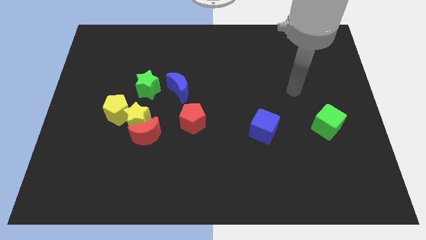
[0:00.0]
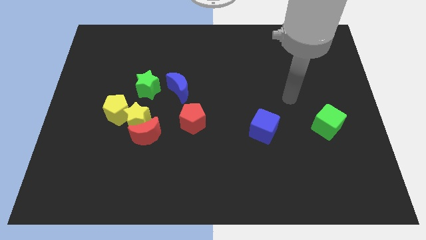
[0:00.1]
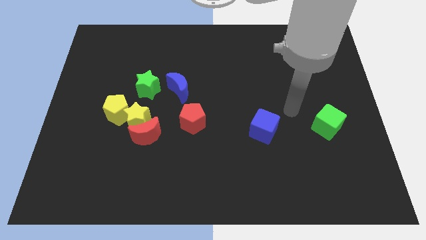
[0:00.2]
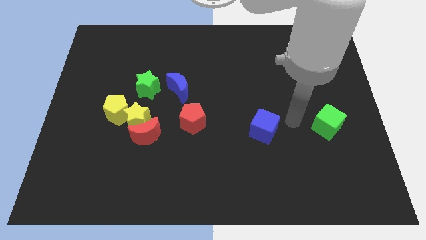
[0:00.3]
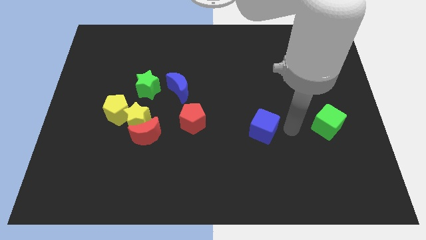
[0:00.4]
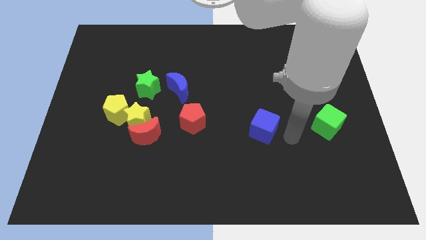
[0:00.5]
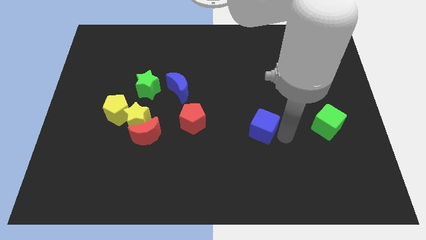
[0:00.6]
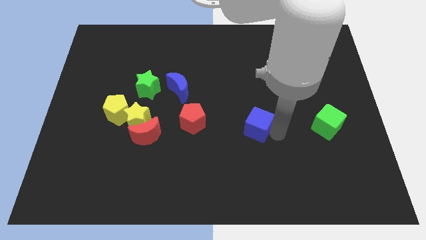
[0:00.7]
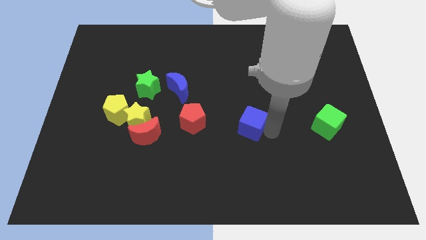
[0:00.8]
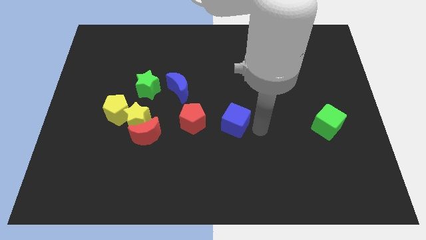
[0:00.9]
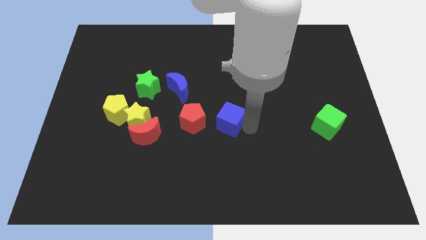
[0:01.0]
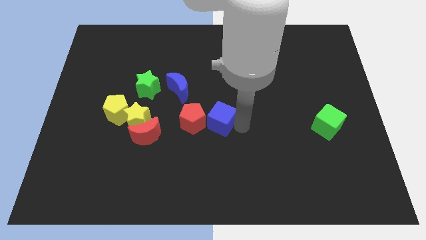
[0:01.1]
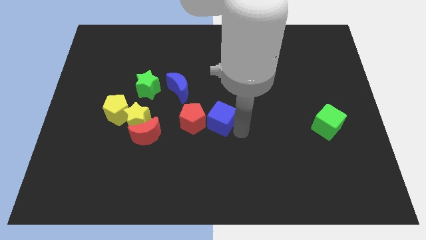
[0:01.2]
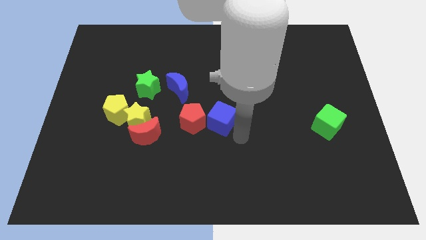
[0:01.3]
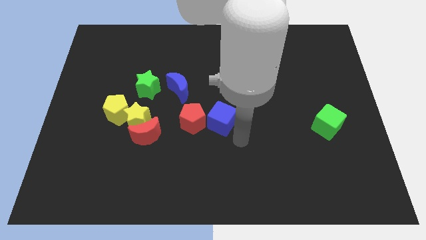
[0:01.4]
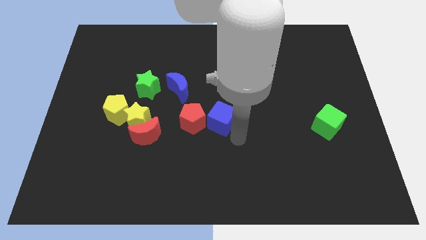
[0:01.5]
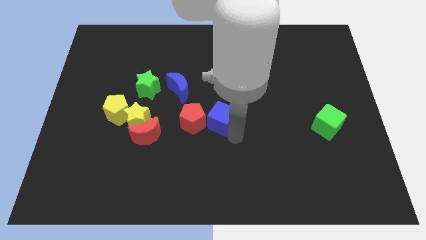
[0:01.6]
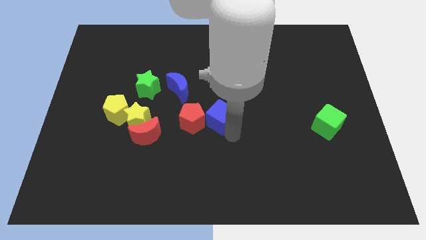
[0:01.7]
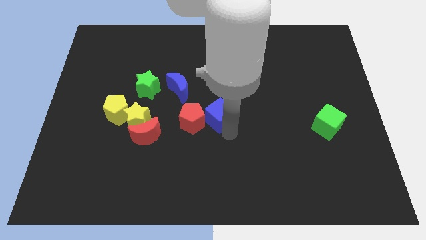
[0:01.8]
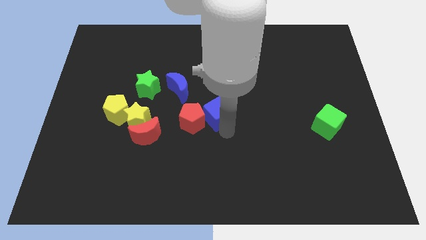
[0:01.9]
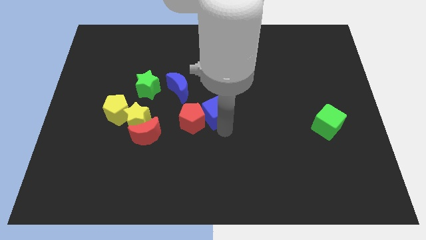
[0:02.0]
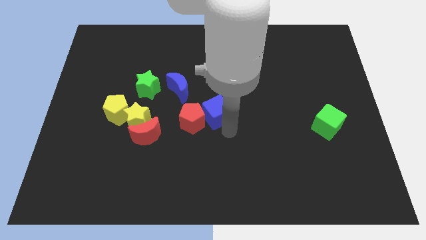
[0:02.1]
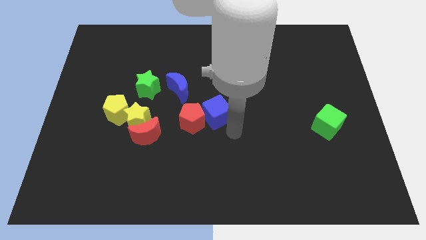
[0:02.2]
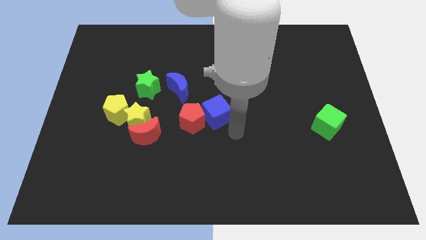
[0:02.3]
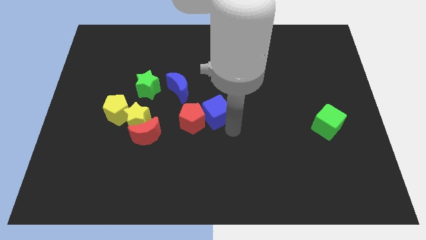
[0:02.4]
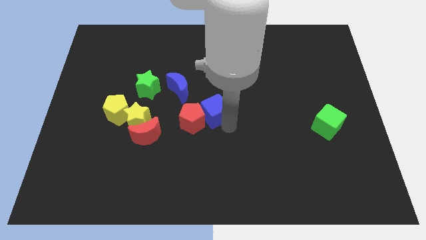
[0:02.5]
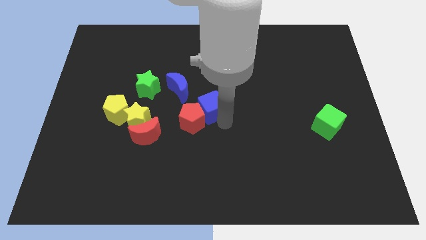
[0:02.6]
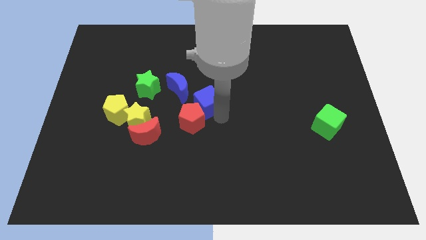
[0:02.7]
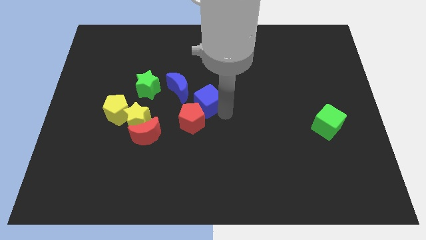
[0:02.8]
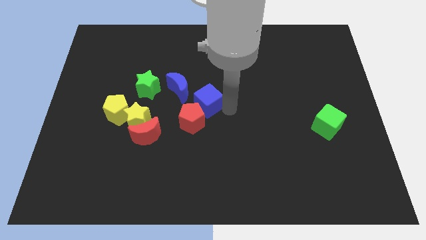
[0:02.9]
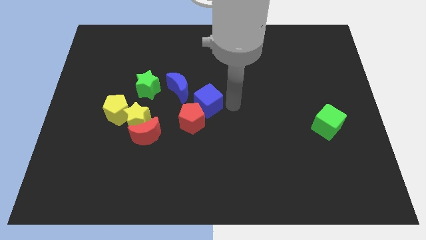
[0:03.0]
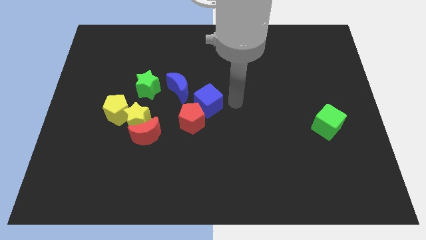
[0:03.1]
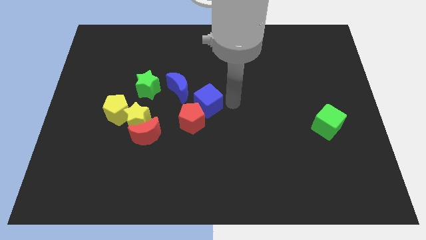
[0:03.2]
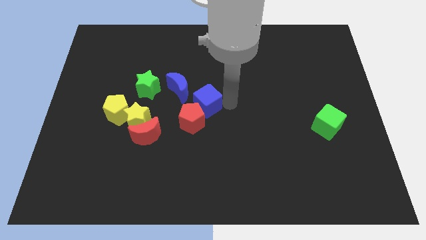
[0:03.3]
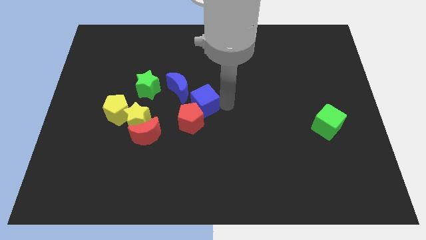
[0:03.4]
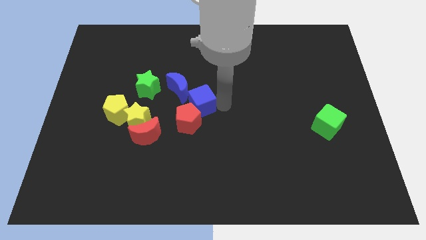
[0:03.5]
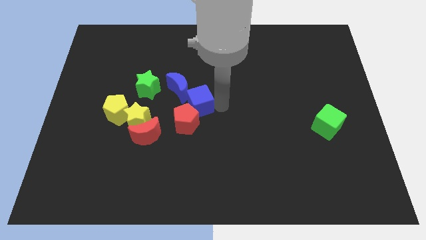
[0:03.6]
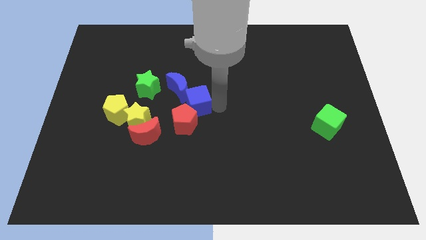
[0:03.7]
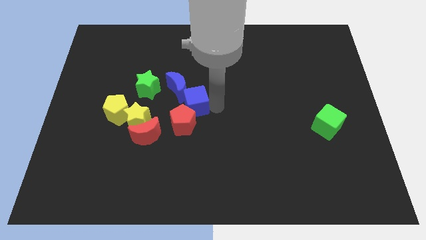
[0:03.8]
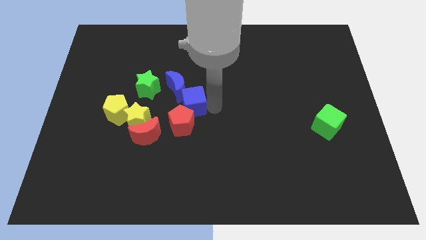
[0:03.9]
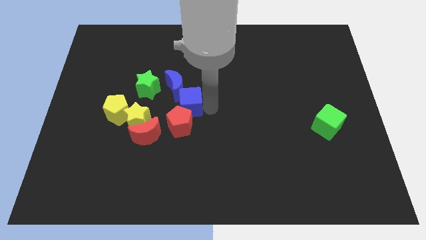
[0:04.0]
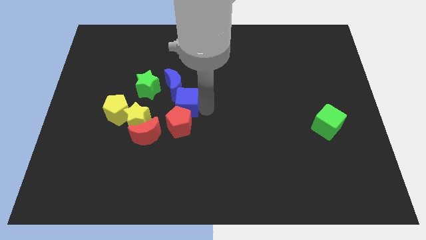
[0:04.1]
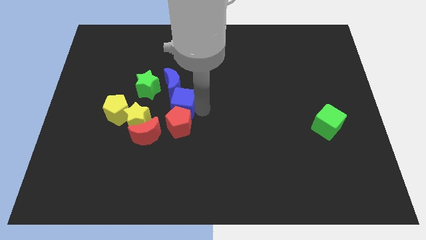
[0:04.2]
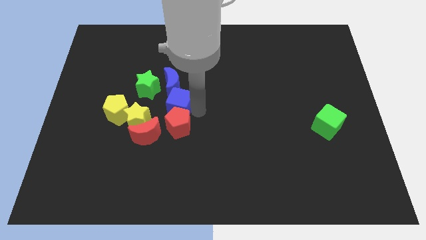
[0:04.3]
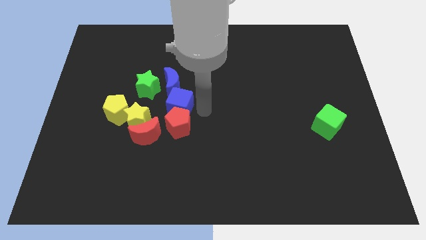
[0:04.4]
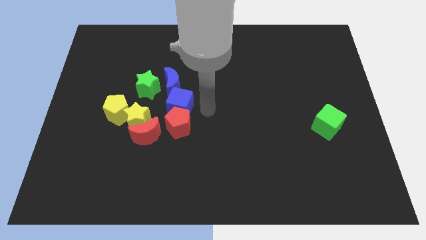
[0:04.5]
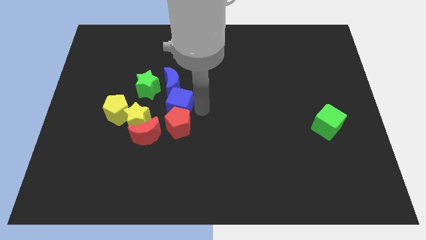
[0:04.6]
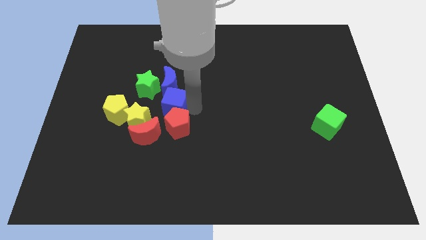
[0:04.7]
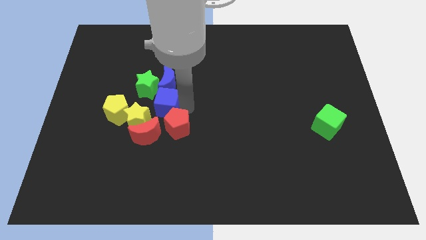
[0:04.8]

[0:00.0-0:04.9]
push the blue cube to the bottom left of the blue moon

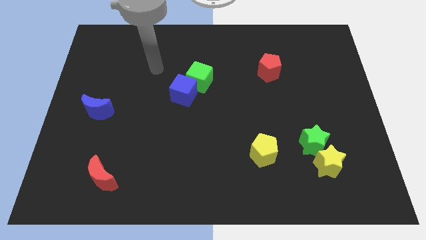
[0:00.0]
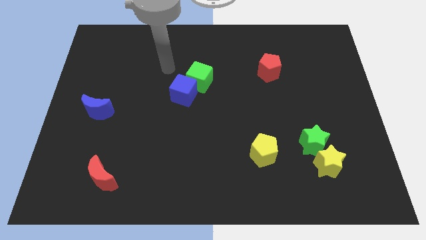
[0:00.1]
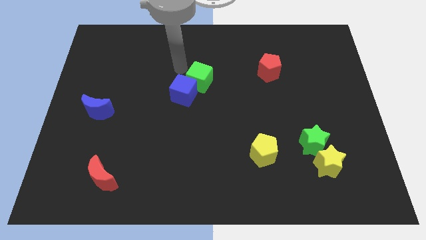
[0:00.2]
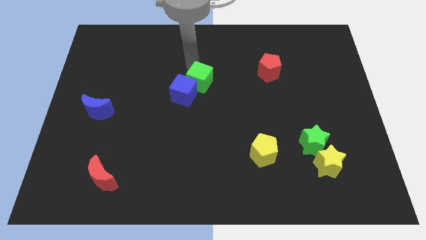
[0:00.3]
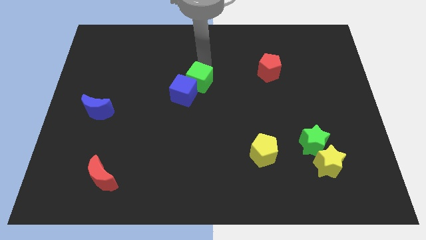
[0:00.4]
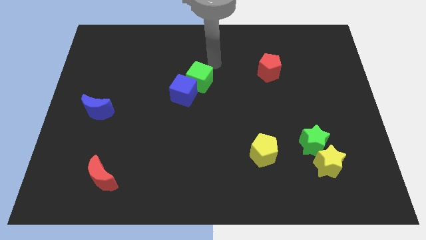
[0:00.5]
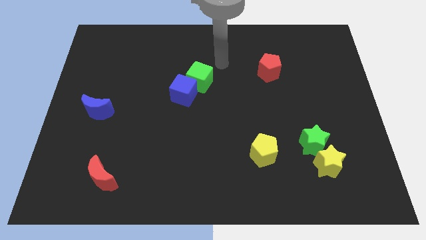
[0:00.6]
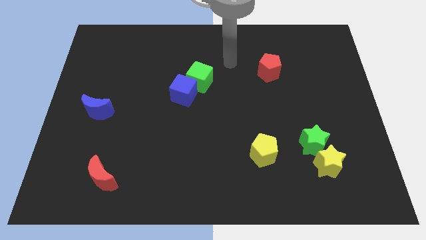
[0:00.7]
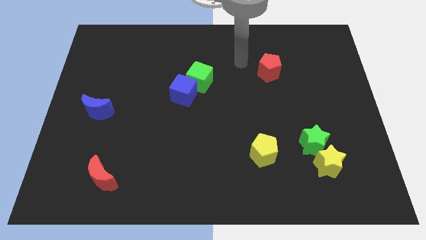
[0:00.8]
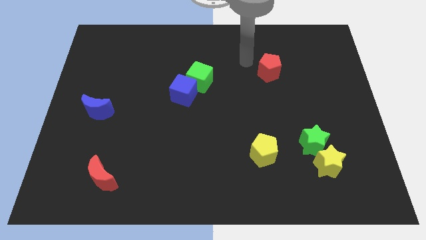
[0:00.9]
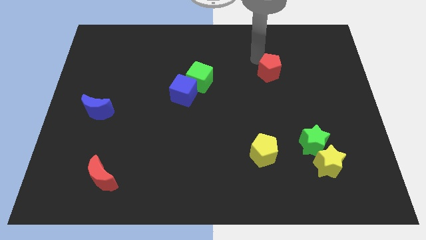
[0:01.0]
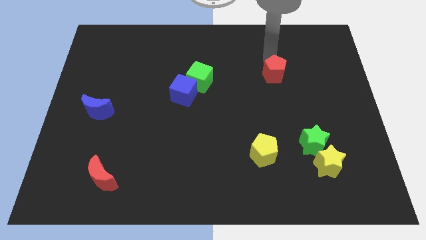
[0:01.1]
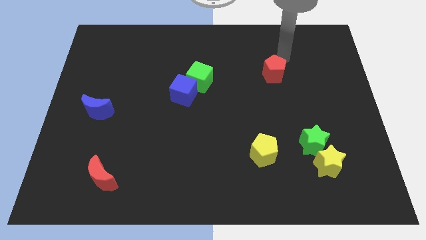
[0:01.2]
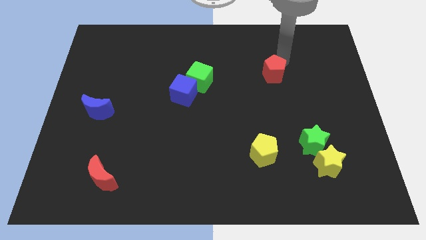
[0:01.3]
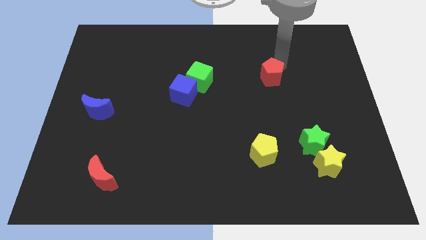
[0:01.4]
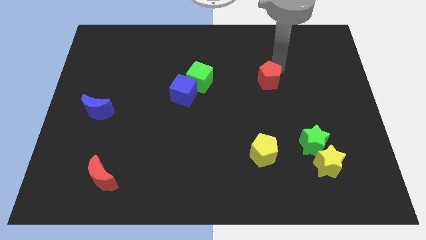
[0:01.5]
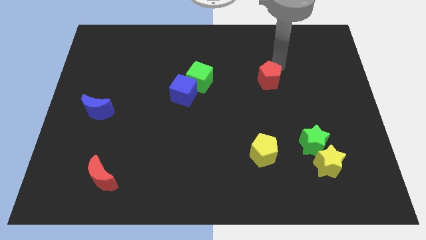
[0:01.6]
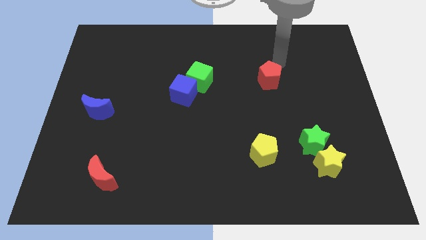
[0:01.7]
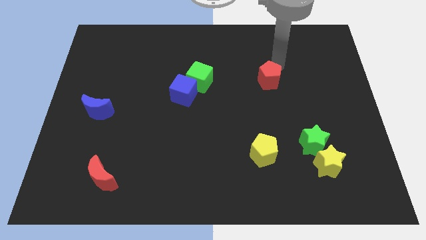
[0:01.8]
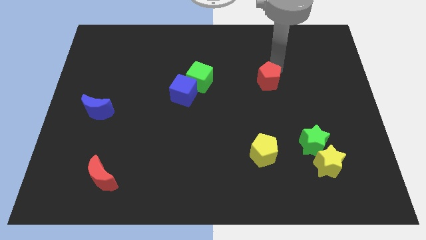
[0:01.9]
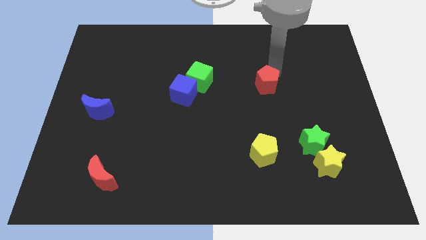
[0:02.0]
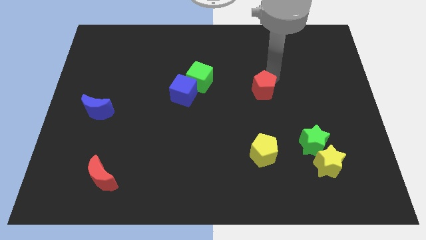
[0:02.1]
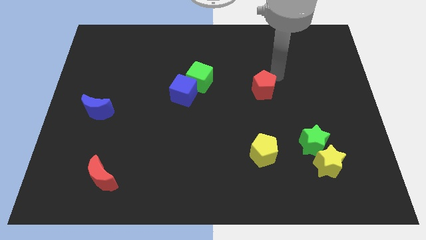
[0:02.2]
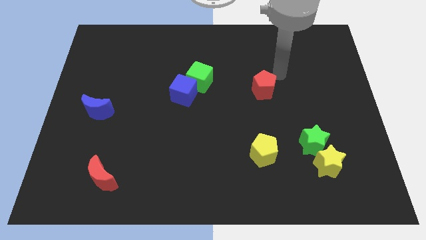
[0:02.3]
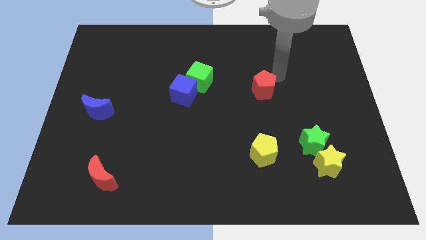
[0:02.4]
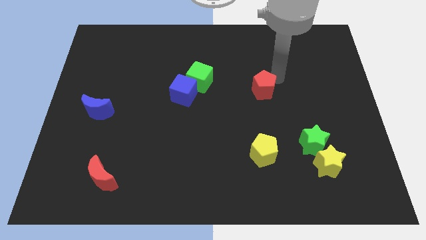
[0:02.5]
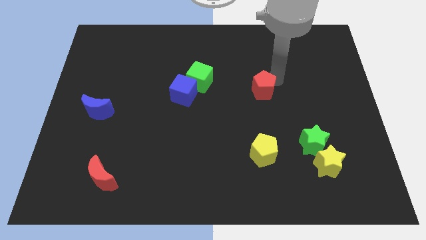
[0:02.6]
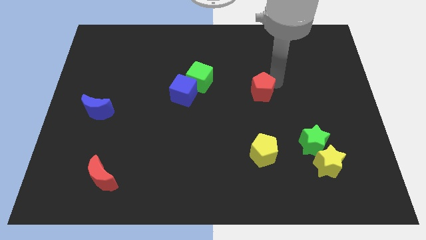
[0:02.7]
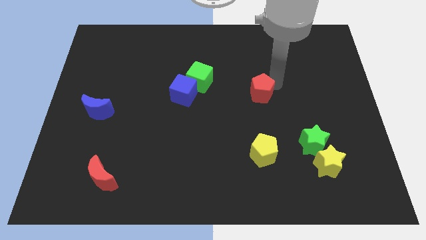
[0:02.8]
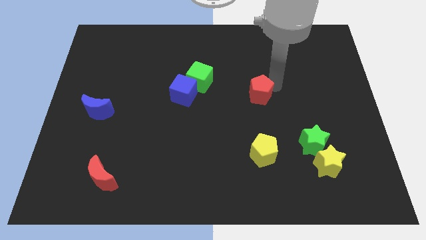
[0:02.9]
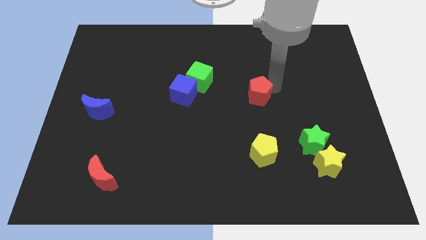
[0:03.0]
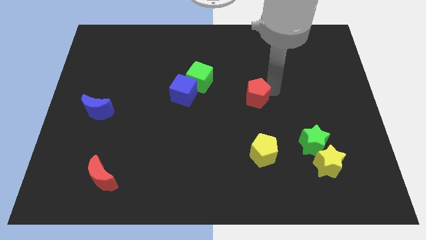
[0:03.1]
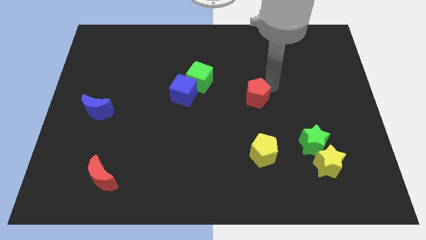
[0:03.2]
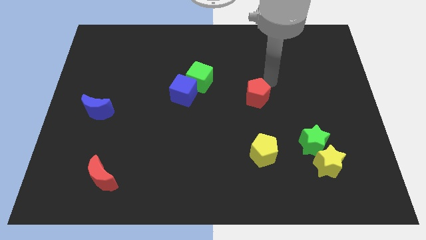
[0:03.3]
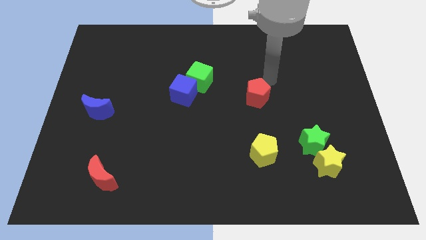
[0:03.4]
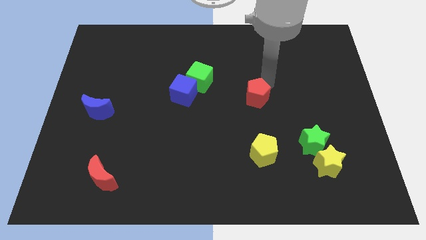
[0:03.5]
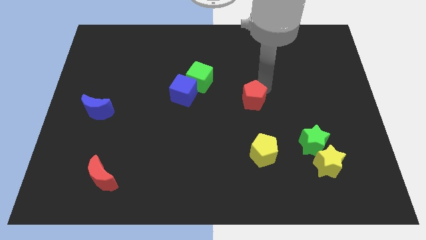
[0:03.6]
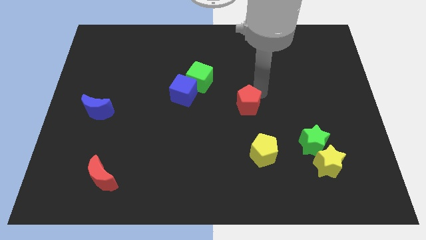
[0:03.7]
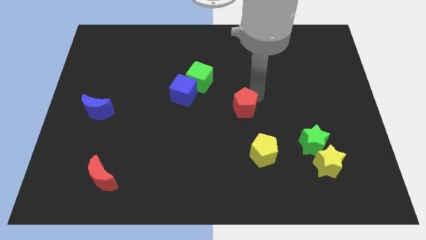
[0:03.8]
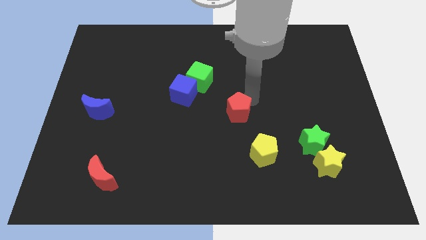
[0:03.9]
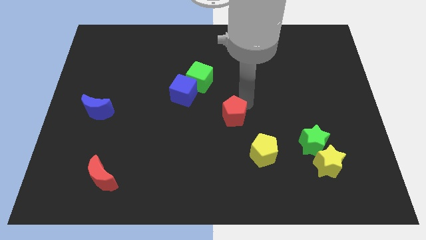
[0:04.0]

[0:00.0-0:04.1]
move the red pentagon diagonally up and to the left of the yellow pentagon
